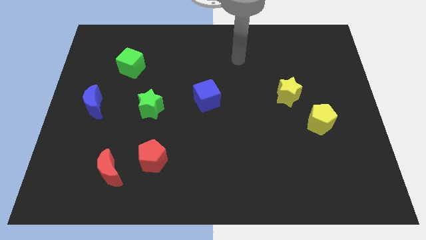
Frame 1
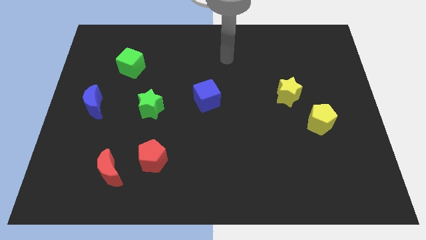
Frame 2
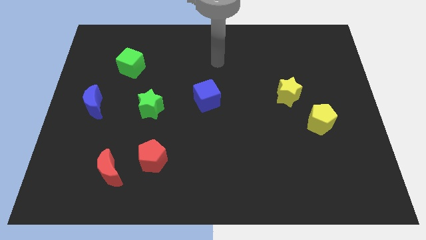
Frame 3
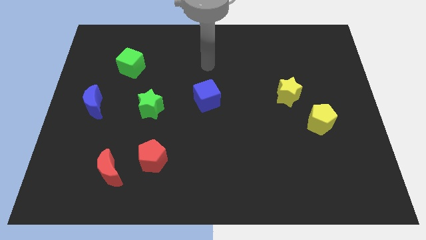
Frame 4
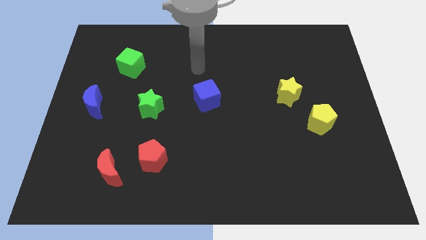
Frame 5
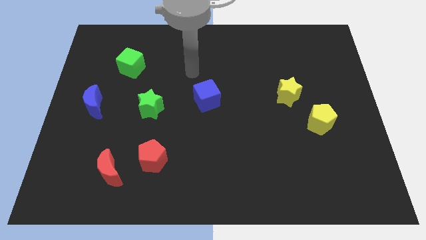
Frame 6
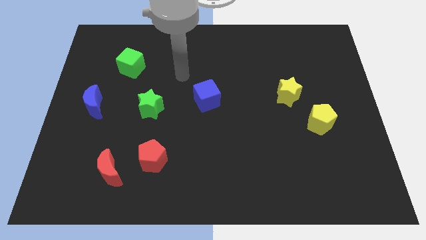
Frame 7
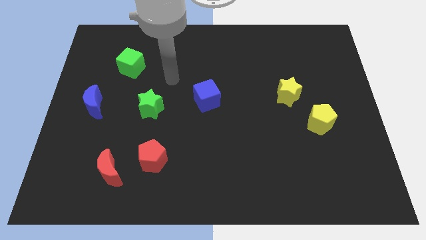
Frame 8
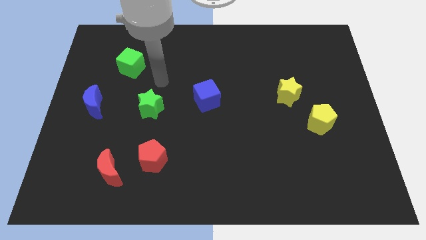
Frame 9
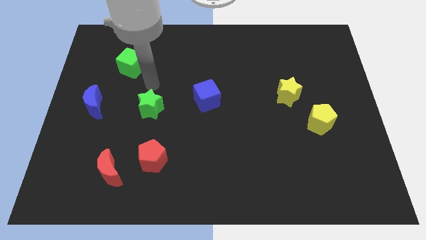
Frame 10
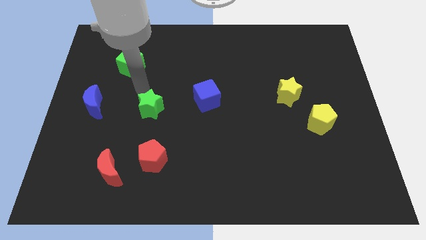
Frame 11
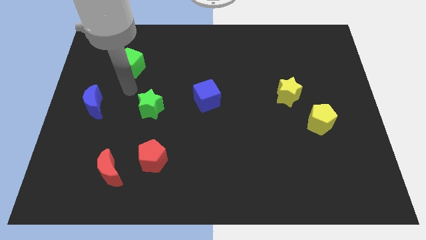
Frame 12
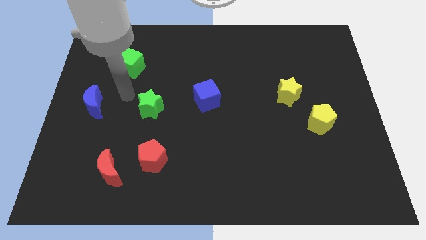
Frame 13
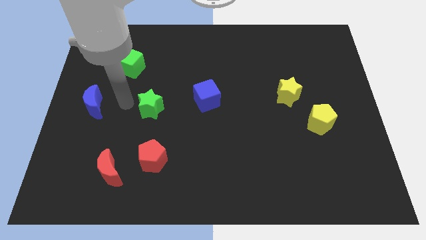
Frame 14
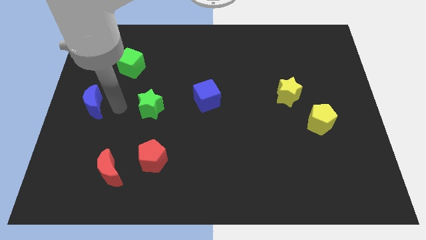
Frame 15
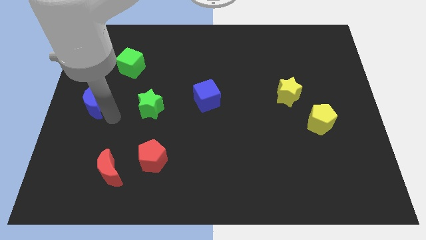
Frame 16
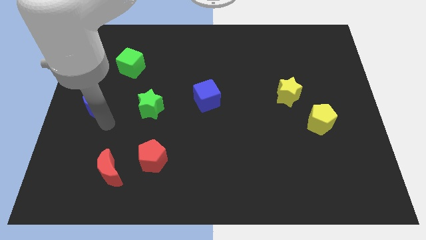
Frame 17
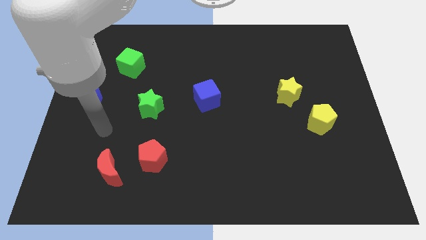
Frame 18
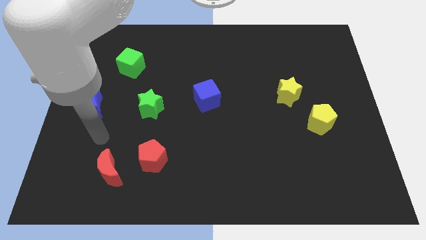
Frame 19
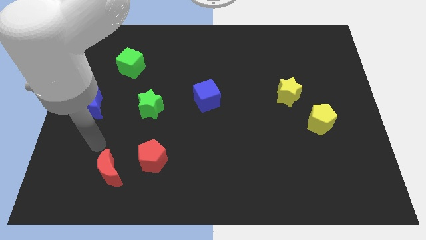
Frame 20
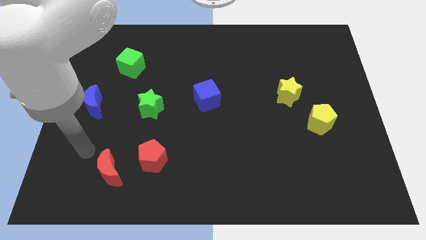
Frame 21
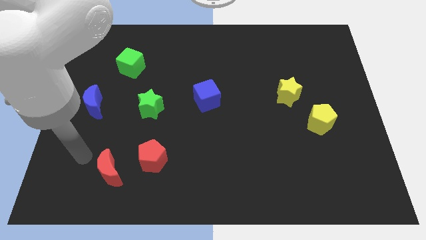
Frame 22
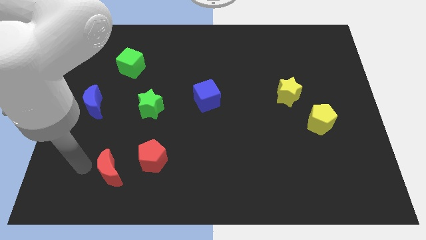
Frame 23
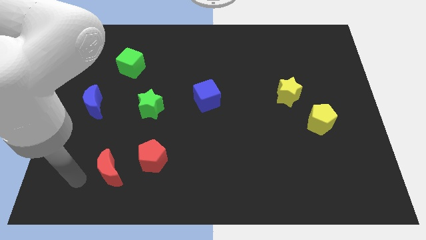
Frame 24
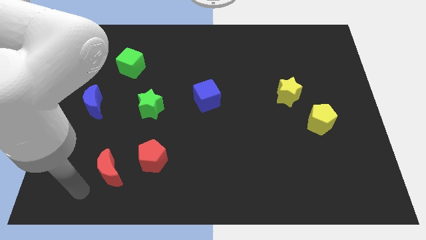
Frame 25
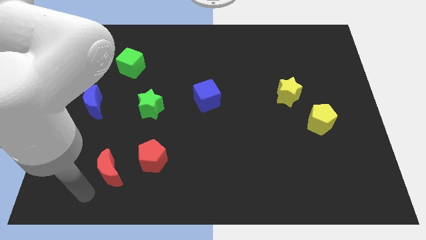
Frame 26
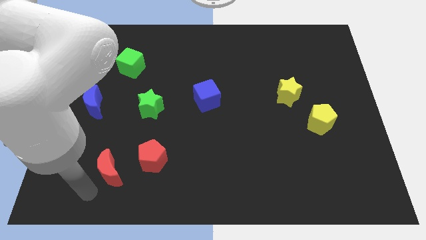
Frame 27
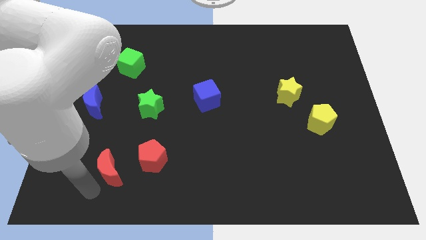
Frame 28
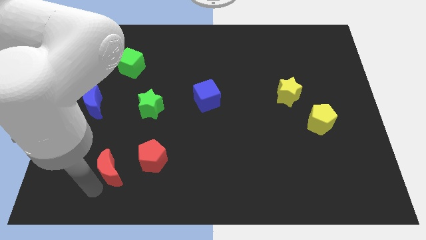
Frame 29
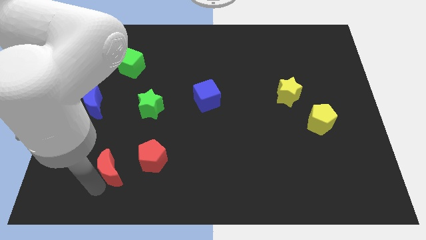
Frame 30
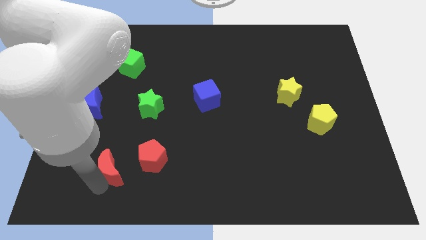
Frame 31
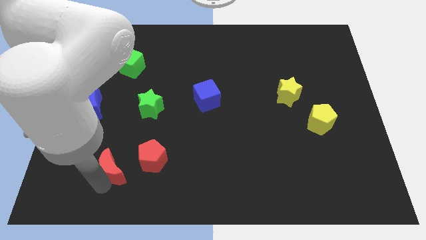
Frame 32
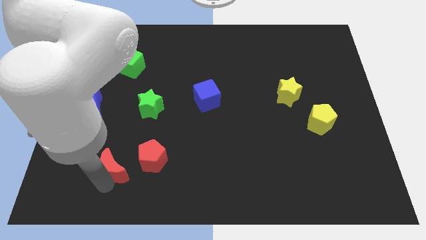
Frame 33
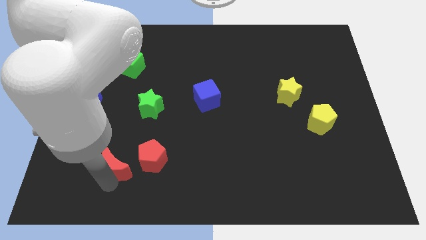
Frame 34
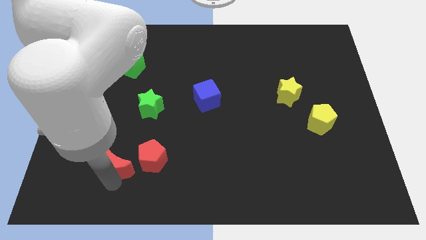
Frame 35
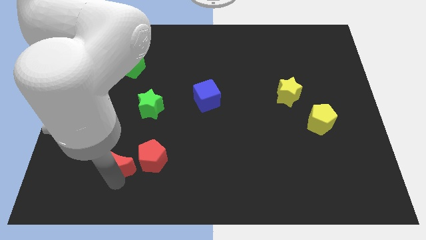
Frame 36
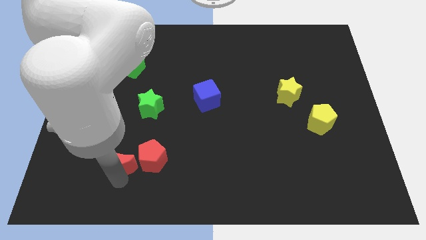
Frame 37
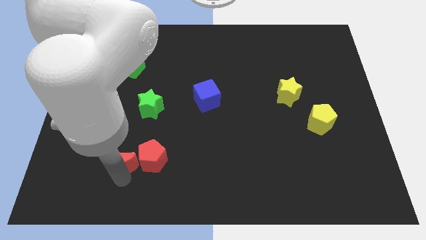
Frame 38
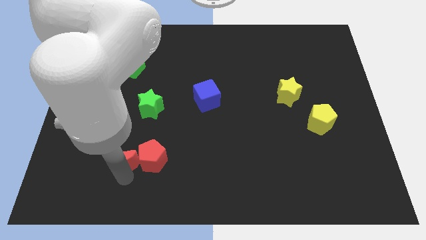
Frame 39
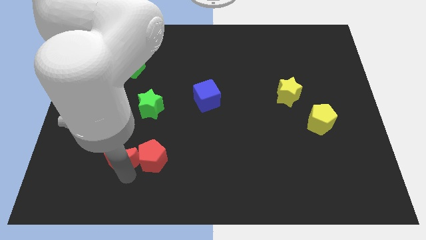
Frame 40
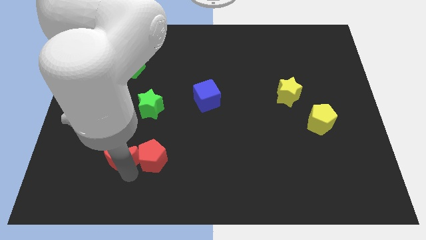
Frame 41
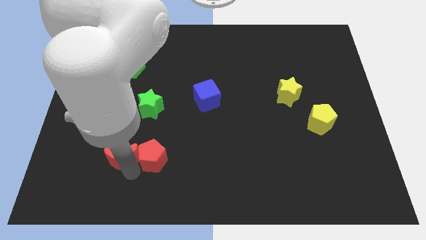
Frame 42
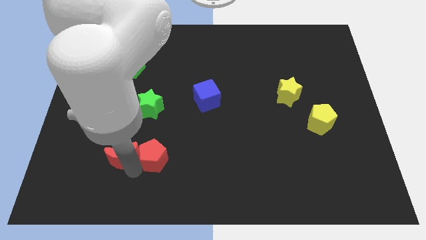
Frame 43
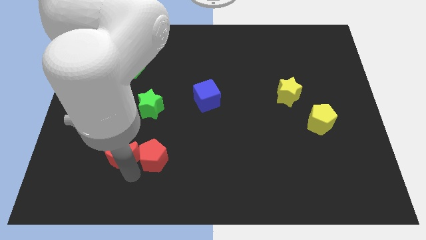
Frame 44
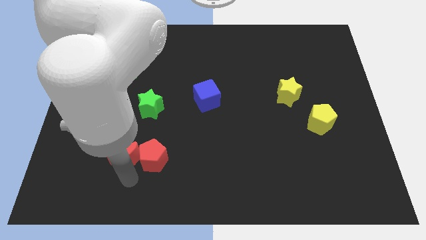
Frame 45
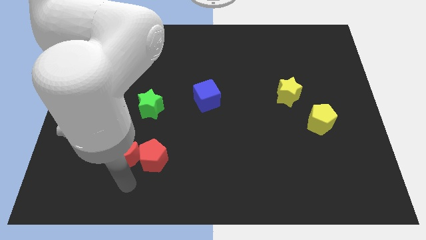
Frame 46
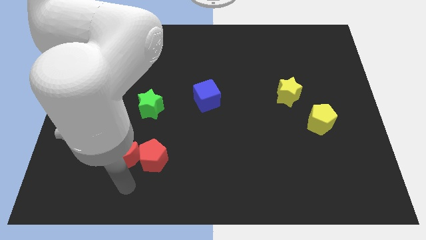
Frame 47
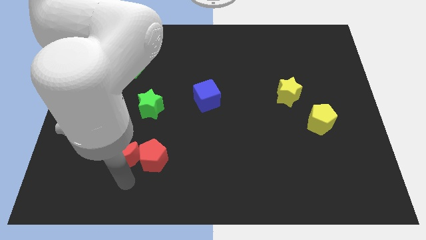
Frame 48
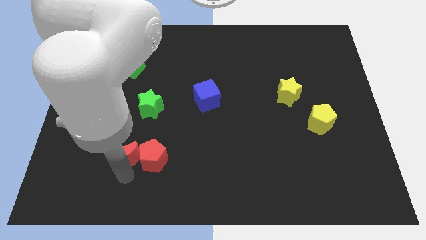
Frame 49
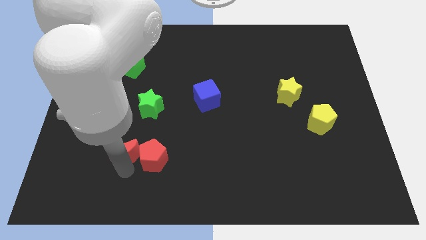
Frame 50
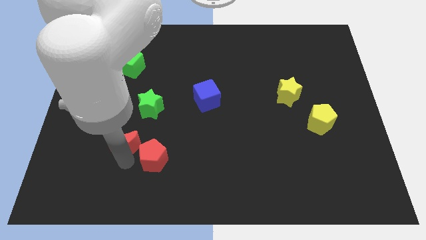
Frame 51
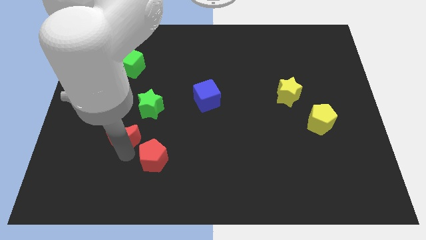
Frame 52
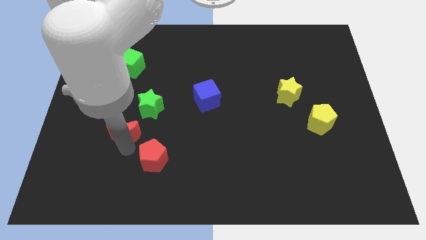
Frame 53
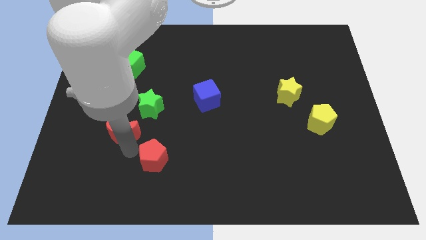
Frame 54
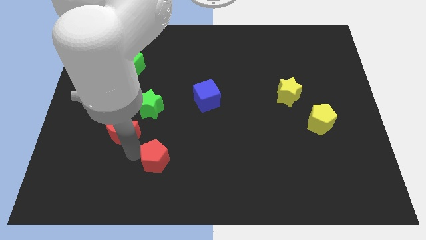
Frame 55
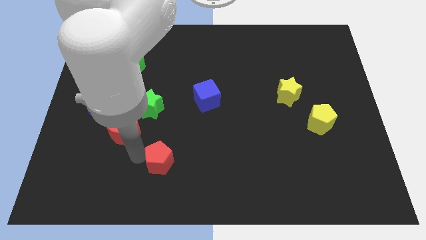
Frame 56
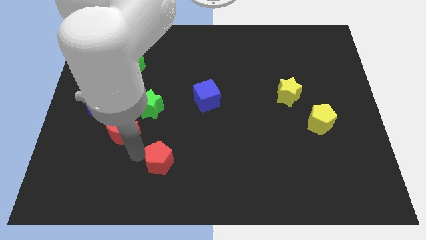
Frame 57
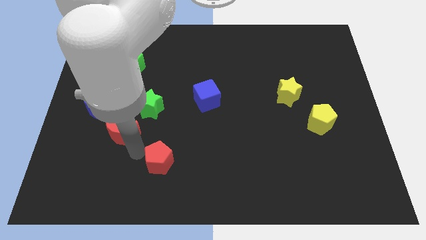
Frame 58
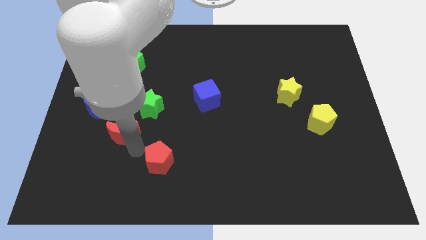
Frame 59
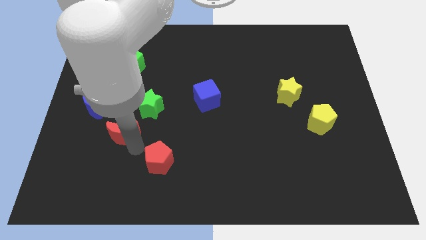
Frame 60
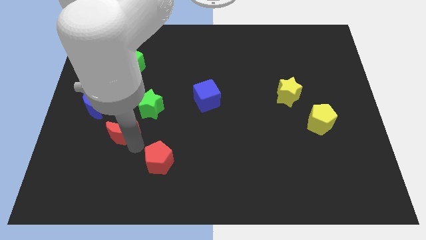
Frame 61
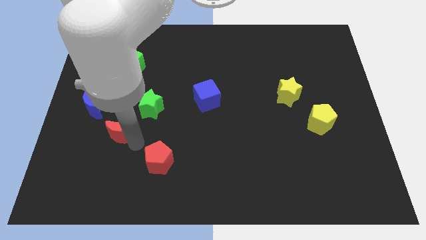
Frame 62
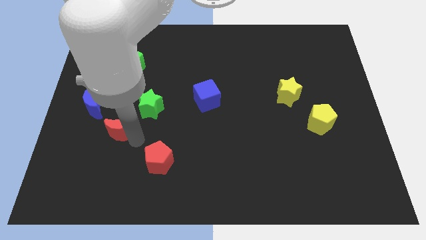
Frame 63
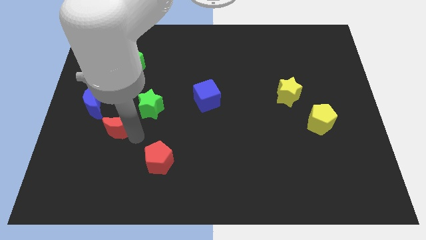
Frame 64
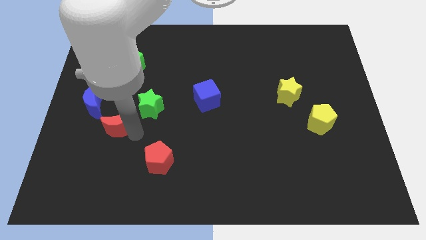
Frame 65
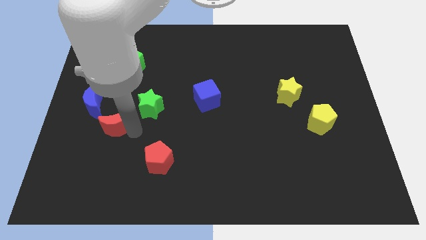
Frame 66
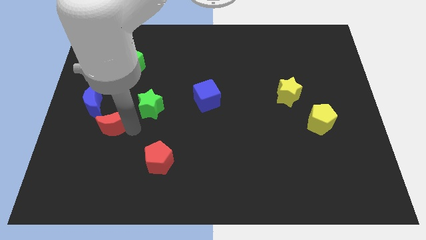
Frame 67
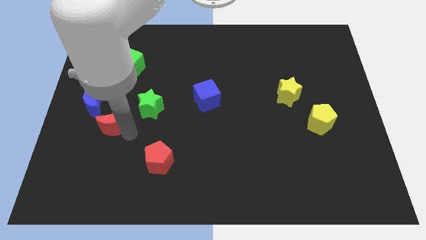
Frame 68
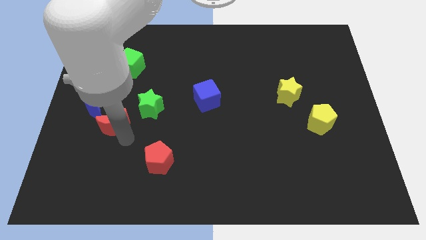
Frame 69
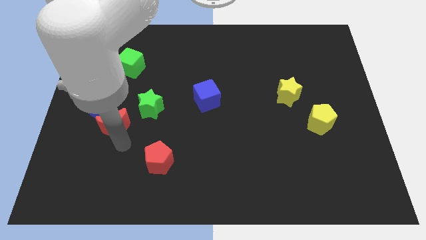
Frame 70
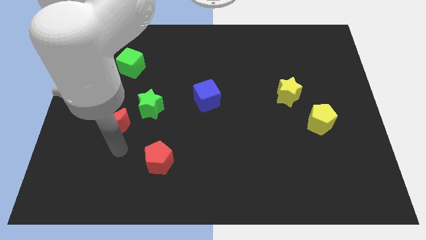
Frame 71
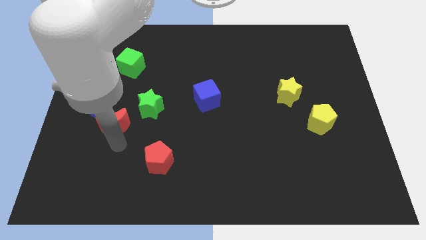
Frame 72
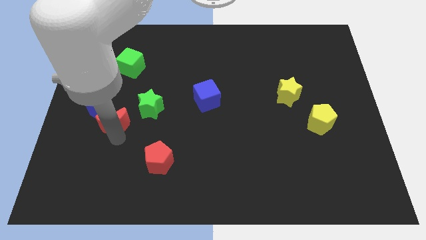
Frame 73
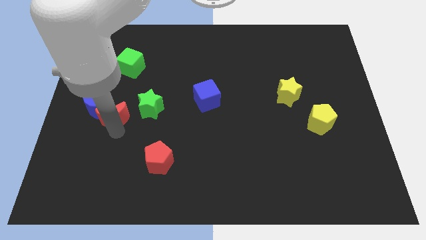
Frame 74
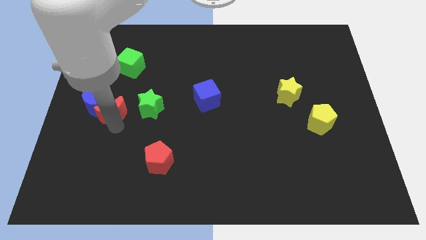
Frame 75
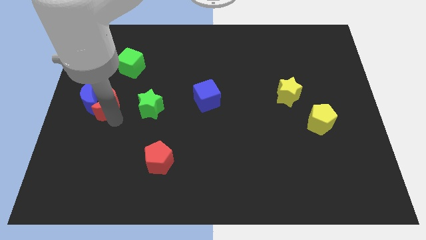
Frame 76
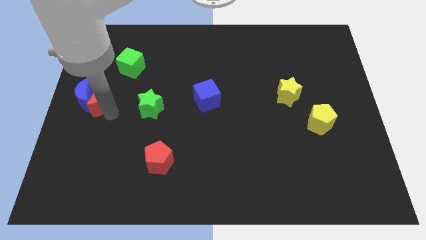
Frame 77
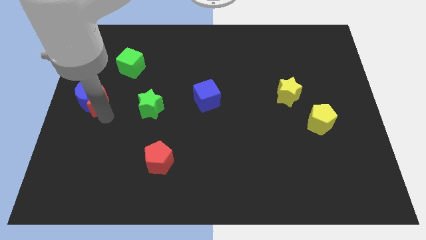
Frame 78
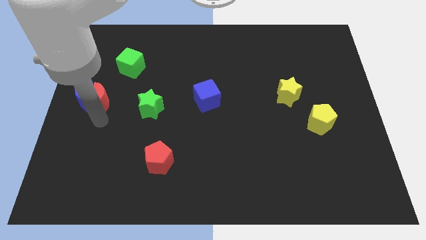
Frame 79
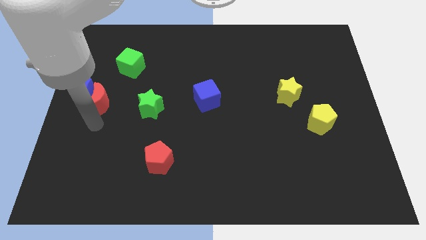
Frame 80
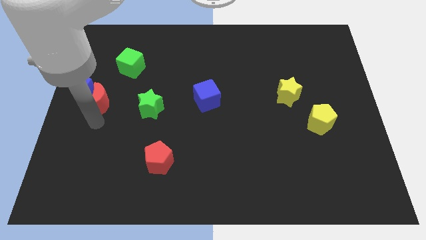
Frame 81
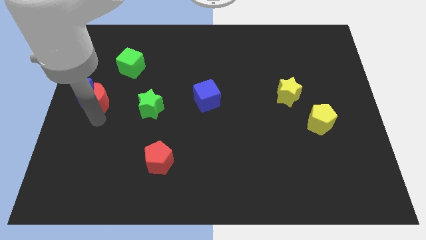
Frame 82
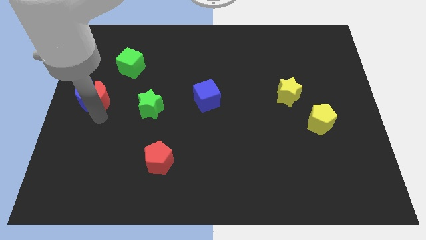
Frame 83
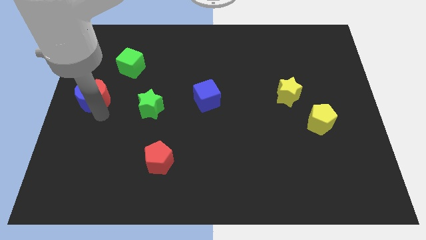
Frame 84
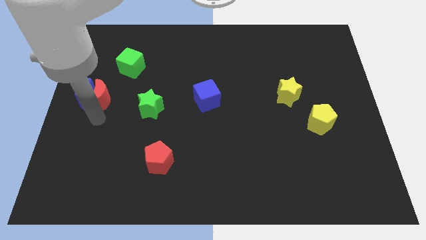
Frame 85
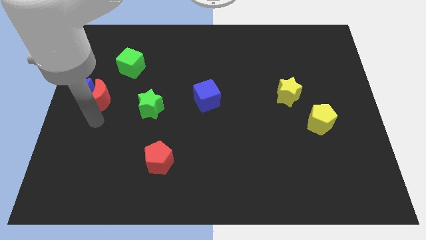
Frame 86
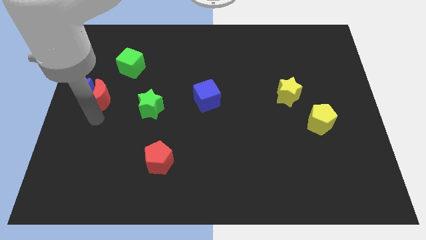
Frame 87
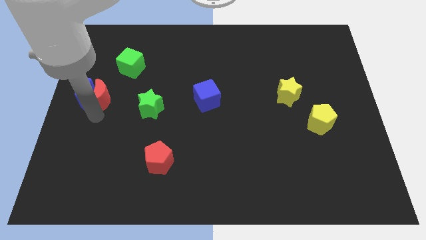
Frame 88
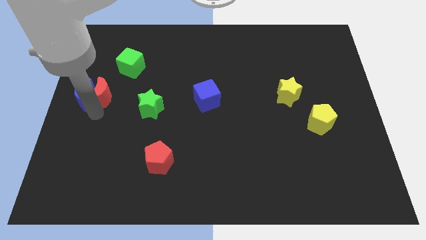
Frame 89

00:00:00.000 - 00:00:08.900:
slide the red moon to the bottom left side of the green cube
